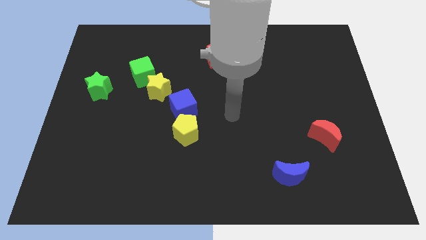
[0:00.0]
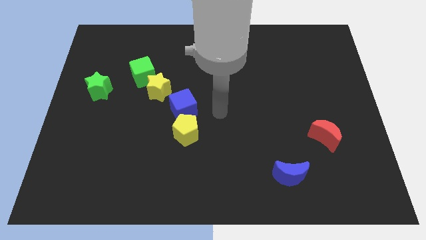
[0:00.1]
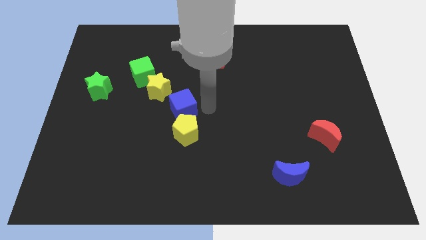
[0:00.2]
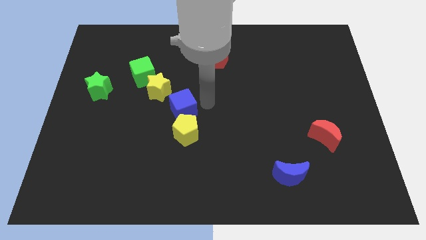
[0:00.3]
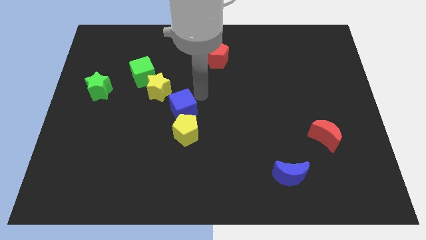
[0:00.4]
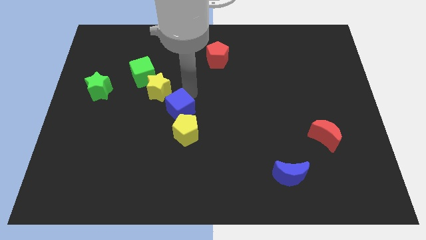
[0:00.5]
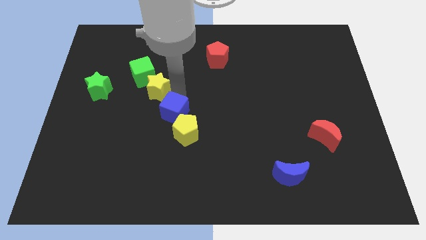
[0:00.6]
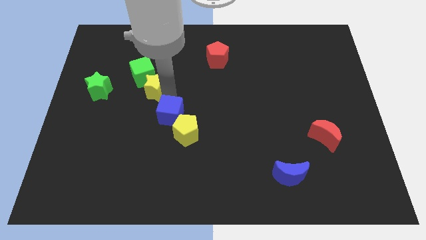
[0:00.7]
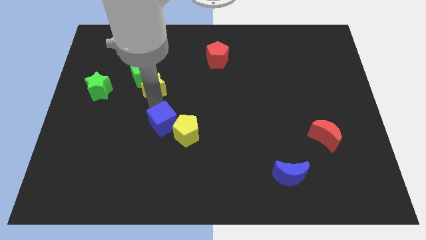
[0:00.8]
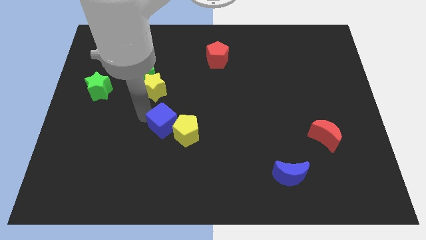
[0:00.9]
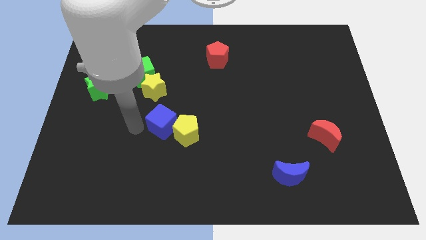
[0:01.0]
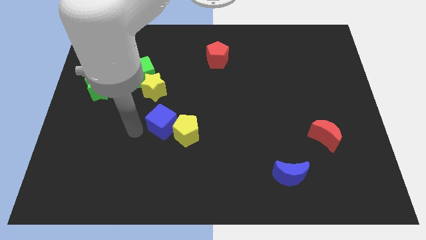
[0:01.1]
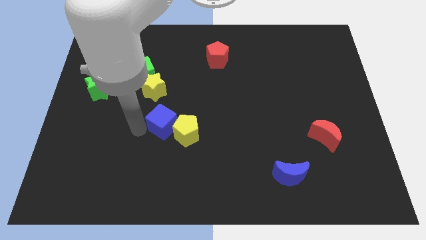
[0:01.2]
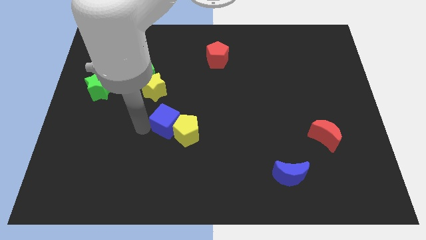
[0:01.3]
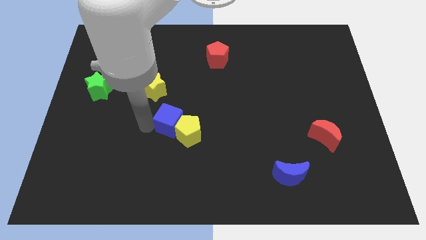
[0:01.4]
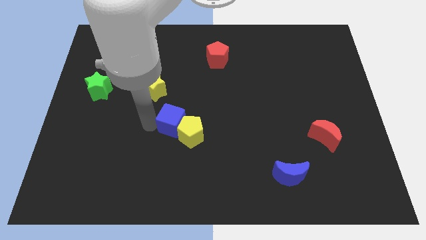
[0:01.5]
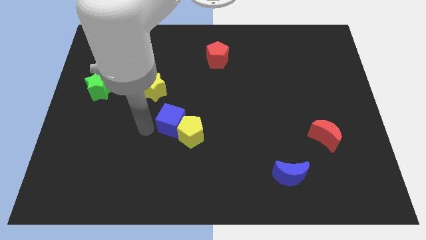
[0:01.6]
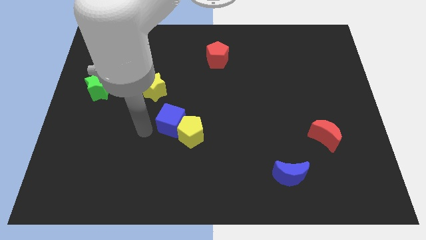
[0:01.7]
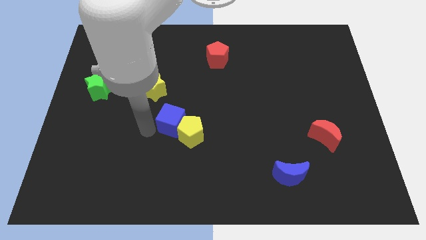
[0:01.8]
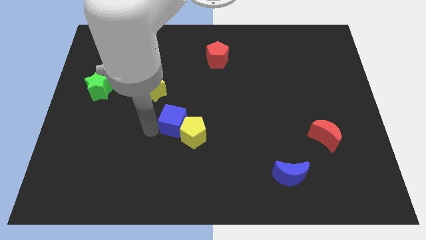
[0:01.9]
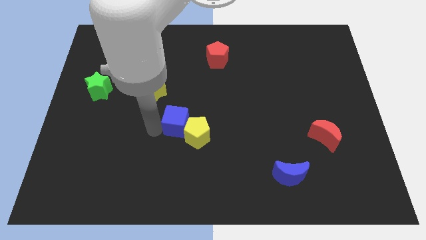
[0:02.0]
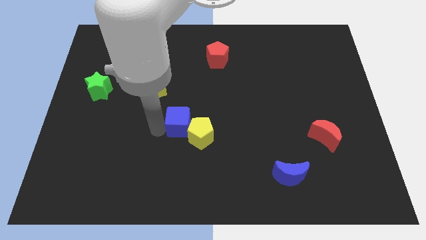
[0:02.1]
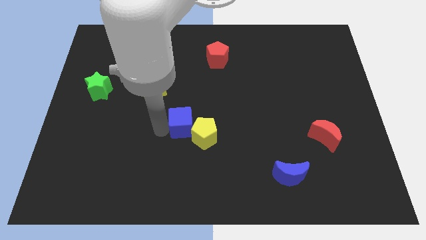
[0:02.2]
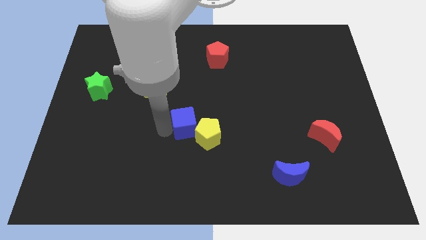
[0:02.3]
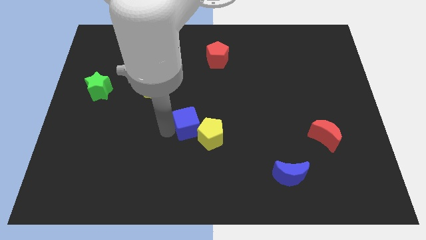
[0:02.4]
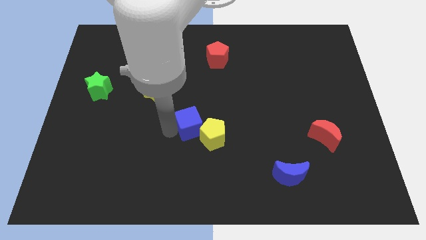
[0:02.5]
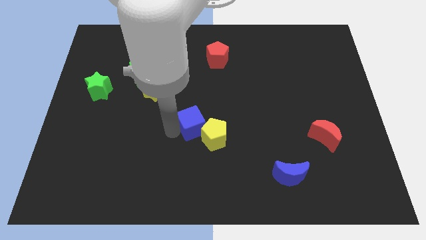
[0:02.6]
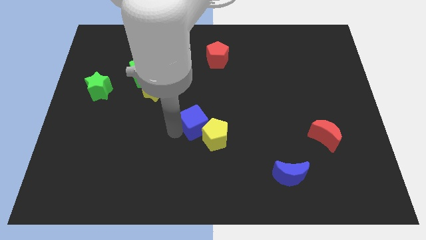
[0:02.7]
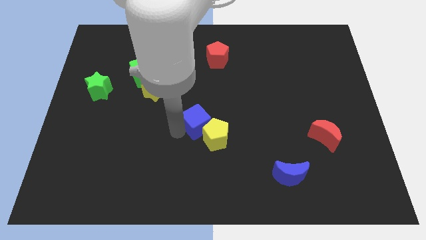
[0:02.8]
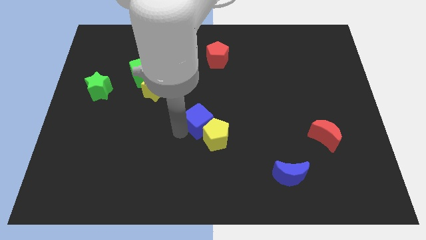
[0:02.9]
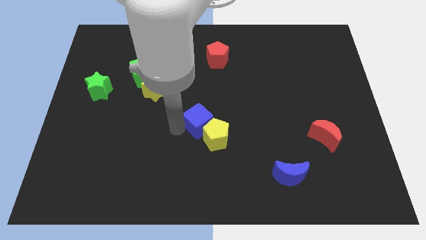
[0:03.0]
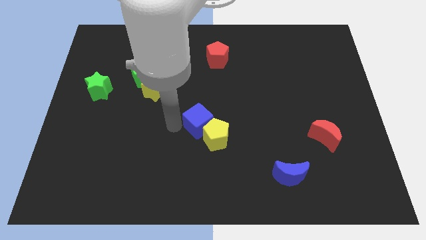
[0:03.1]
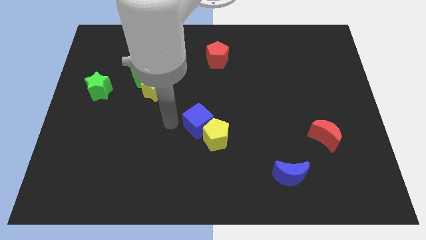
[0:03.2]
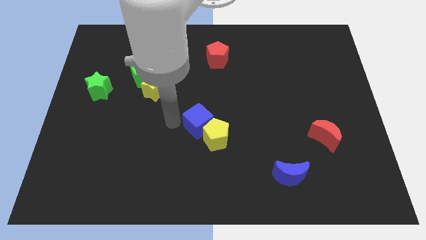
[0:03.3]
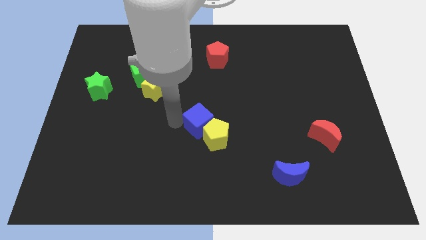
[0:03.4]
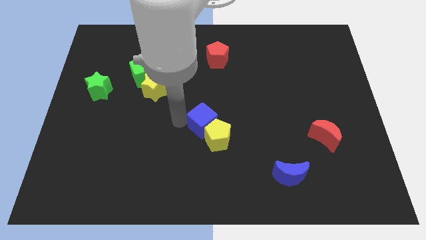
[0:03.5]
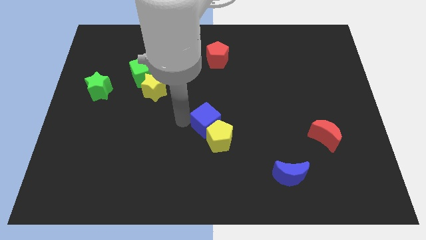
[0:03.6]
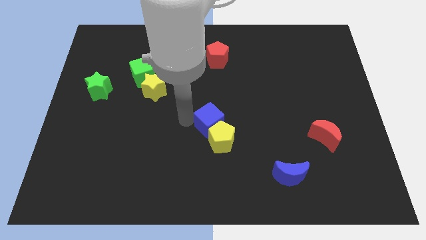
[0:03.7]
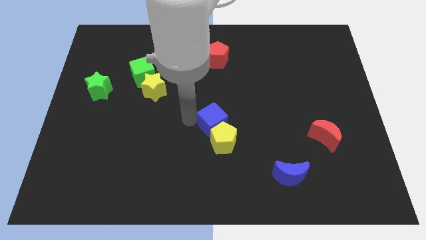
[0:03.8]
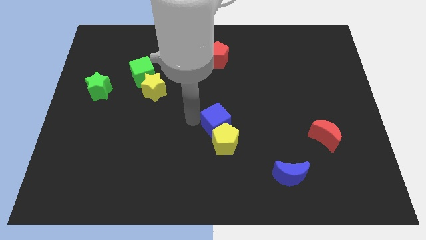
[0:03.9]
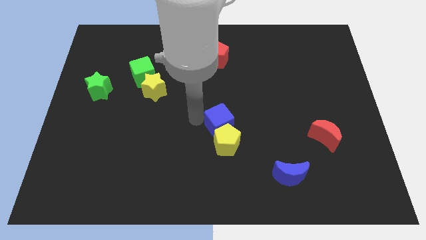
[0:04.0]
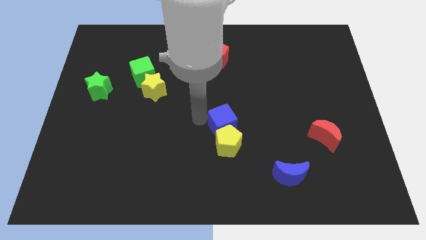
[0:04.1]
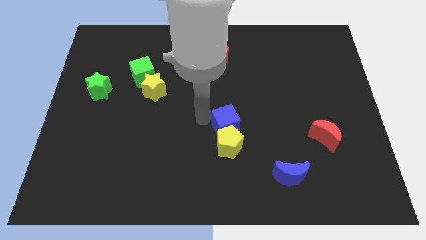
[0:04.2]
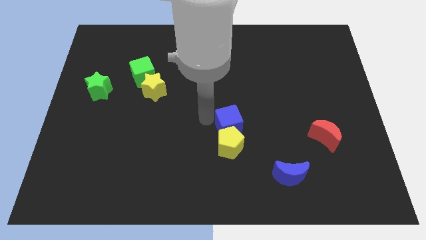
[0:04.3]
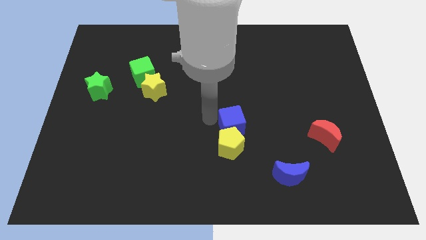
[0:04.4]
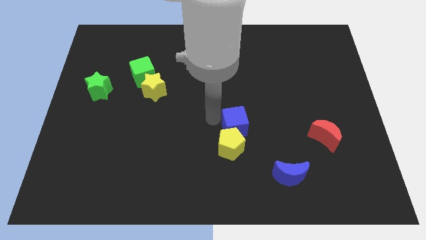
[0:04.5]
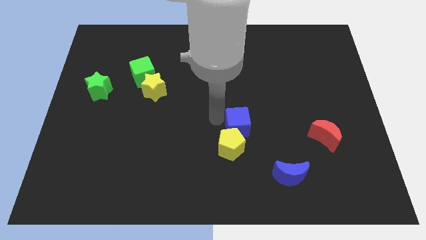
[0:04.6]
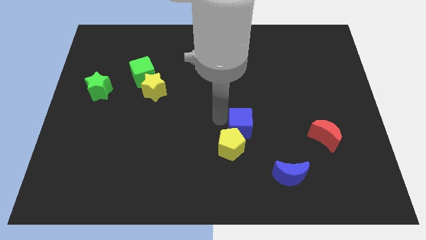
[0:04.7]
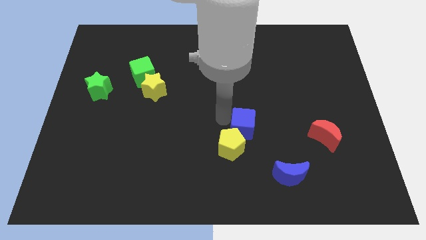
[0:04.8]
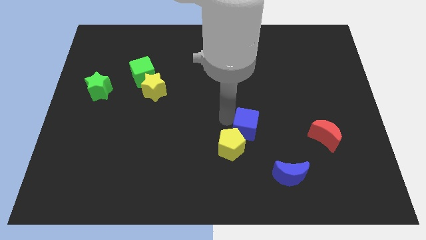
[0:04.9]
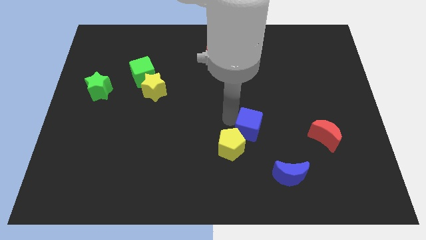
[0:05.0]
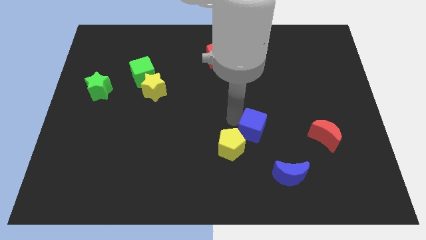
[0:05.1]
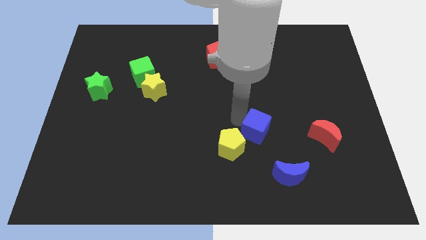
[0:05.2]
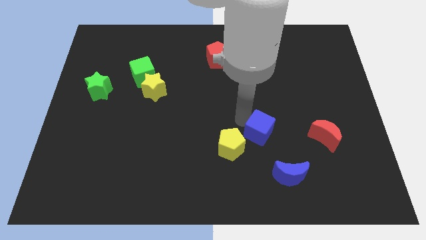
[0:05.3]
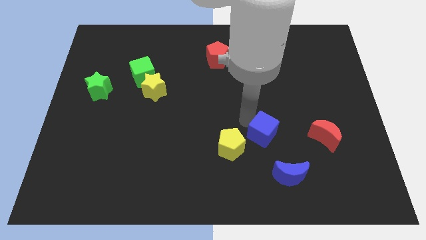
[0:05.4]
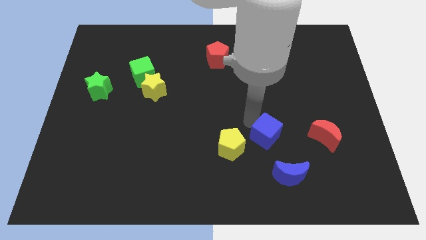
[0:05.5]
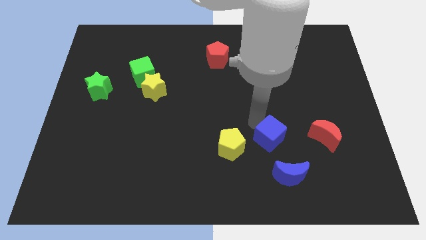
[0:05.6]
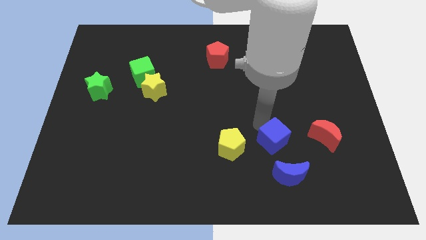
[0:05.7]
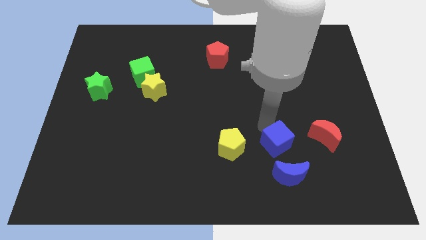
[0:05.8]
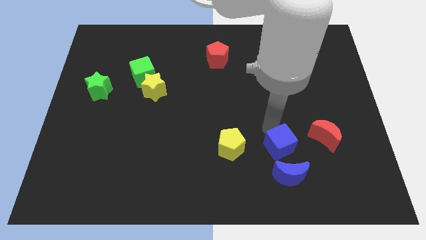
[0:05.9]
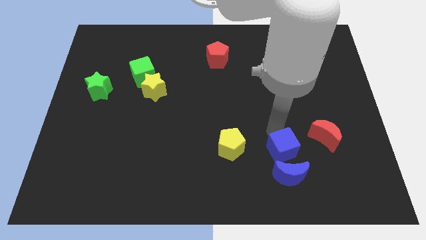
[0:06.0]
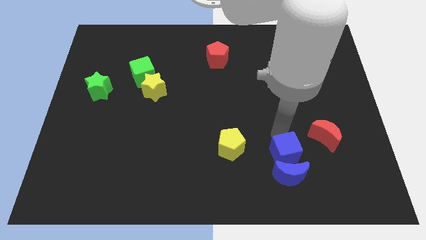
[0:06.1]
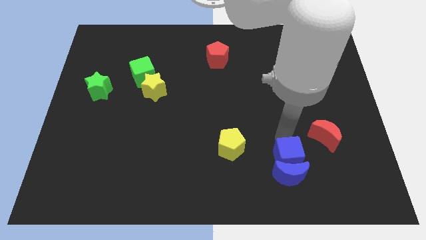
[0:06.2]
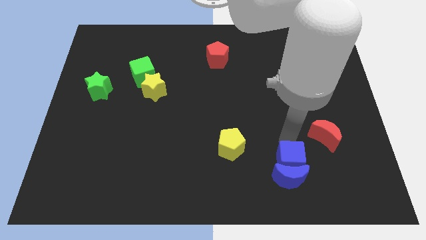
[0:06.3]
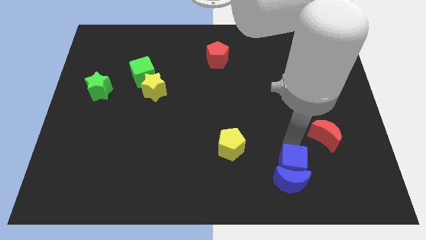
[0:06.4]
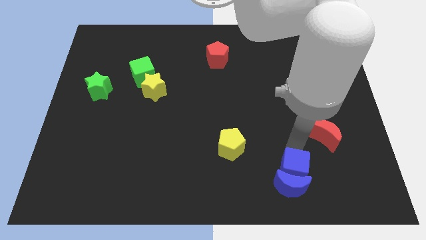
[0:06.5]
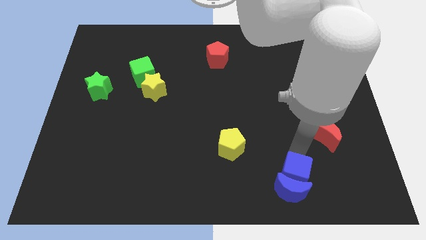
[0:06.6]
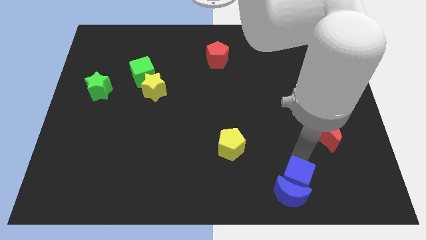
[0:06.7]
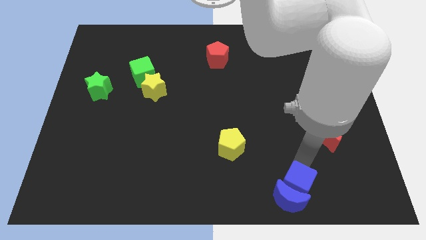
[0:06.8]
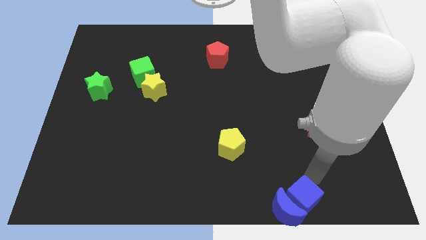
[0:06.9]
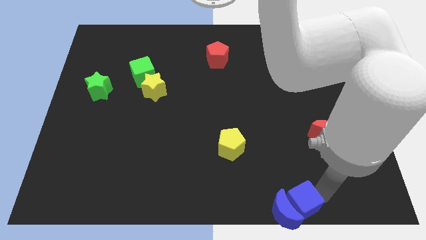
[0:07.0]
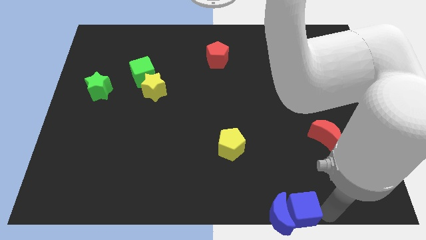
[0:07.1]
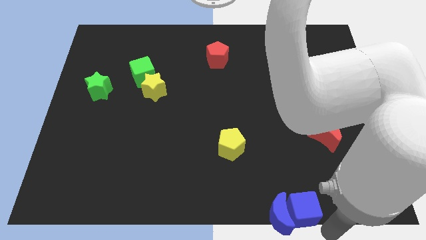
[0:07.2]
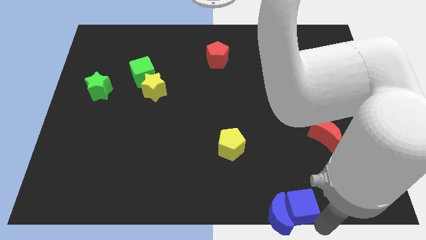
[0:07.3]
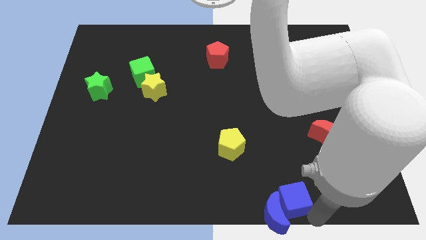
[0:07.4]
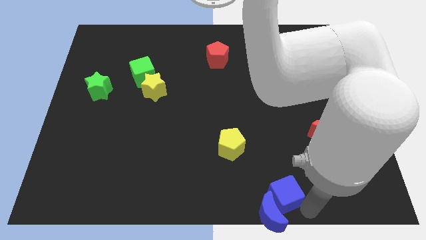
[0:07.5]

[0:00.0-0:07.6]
put the blue cube to the bottom side
